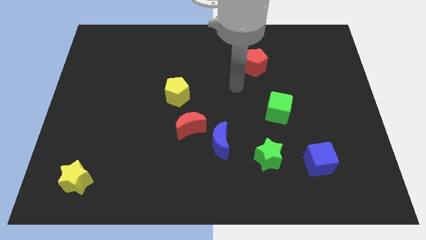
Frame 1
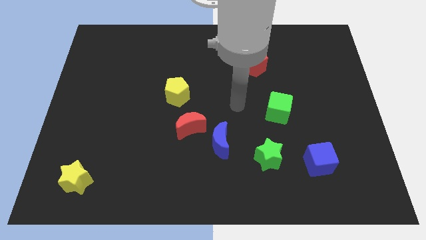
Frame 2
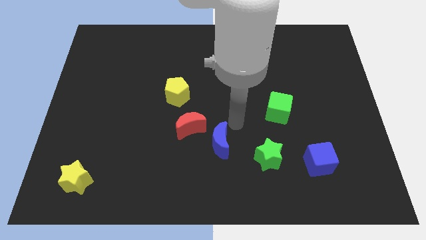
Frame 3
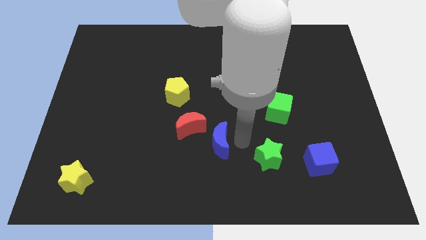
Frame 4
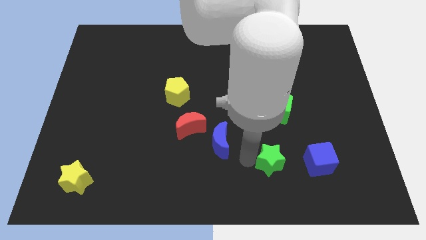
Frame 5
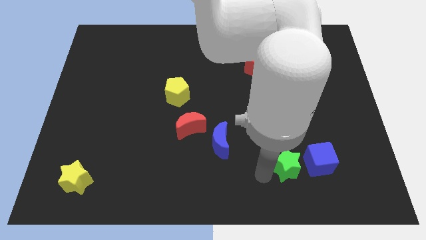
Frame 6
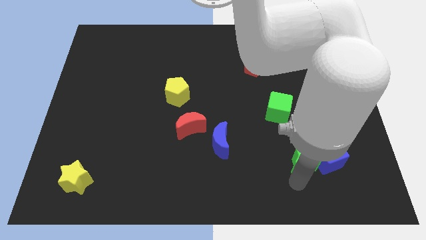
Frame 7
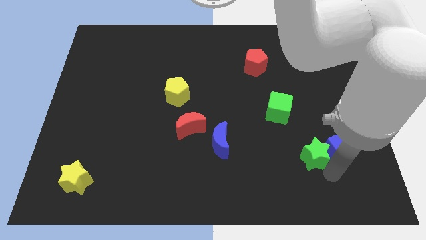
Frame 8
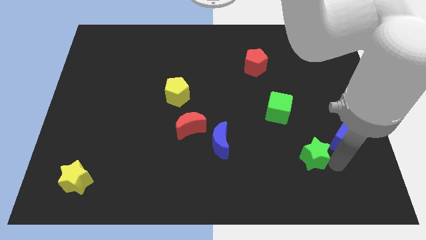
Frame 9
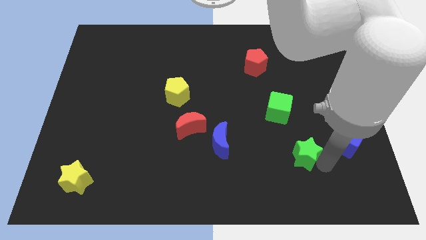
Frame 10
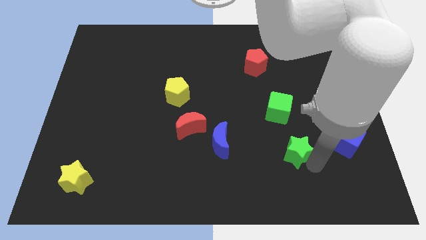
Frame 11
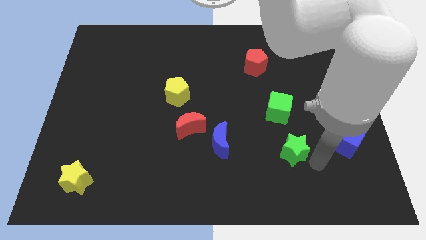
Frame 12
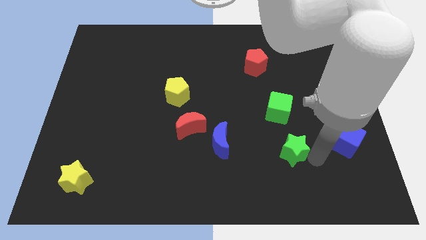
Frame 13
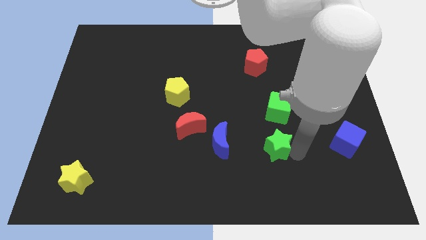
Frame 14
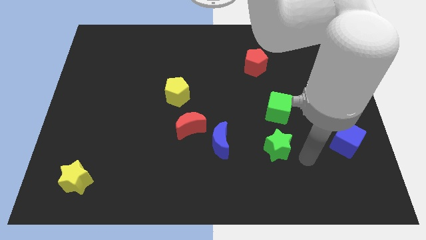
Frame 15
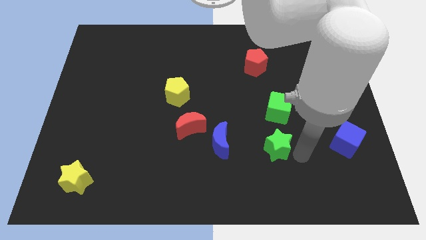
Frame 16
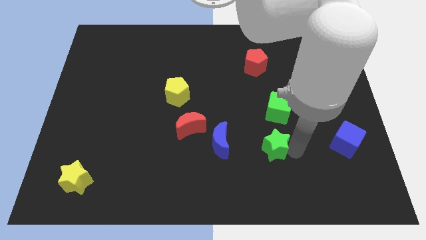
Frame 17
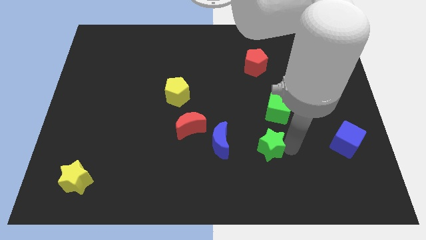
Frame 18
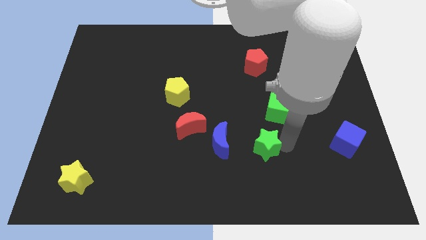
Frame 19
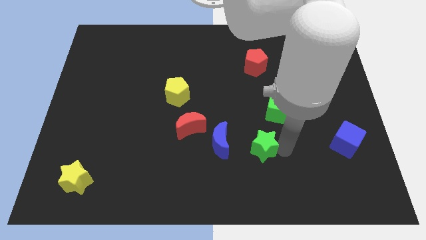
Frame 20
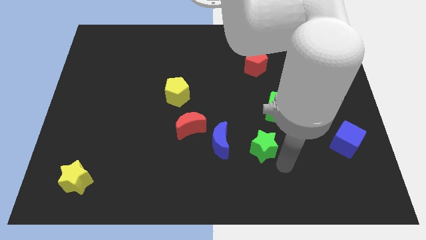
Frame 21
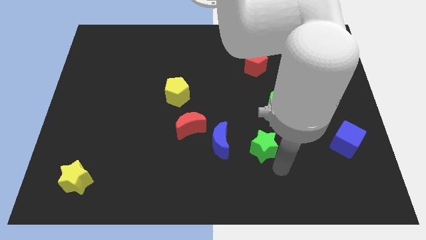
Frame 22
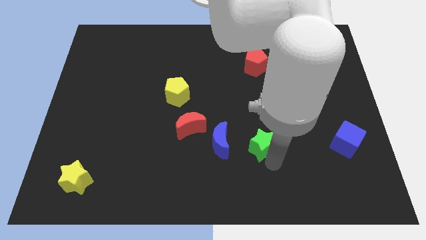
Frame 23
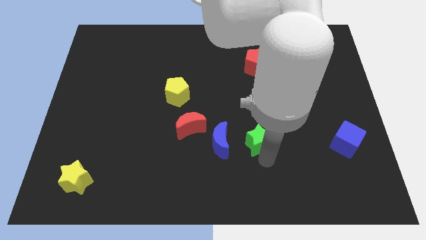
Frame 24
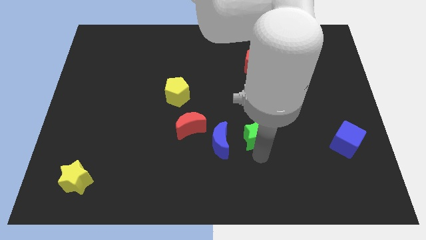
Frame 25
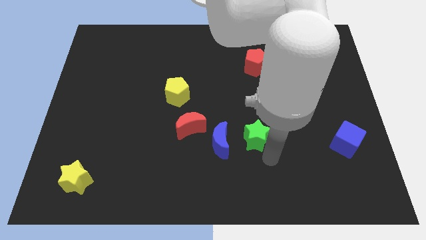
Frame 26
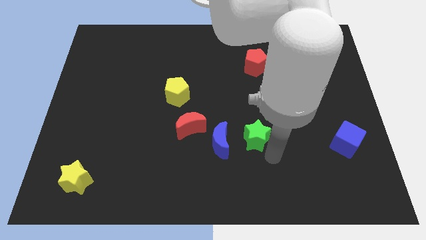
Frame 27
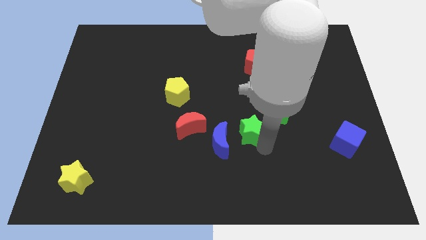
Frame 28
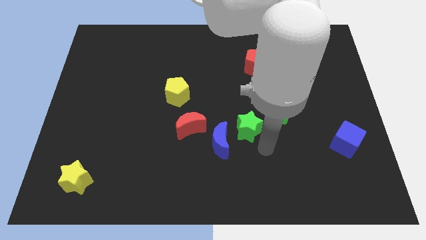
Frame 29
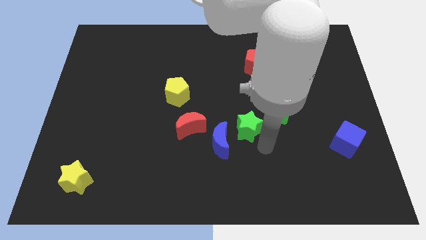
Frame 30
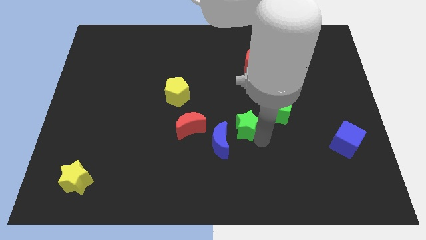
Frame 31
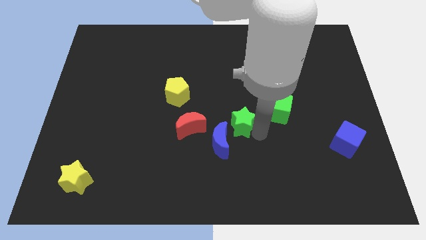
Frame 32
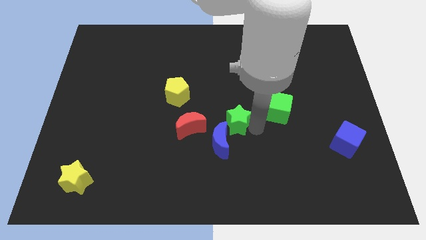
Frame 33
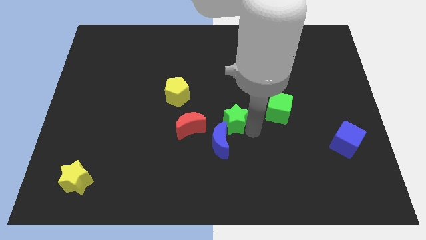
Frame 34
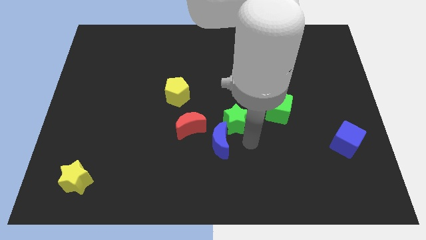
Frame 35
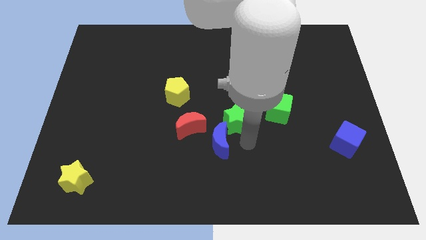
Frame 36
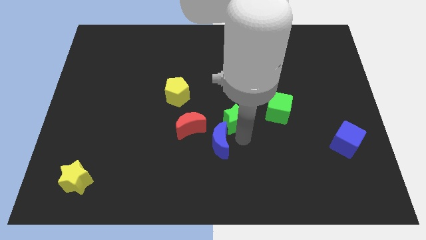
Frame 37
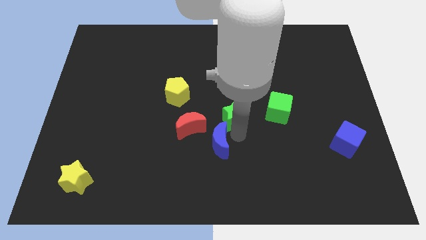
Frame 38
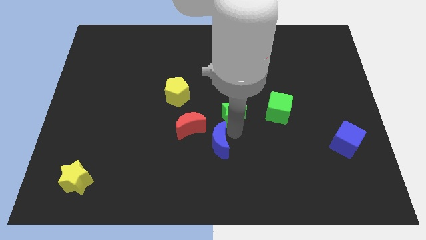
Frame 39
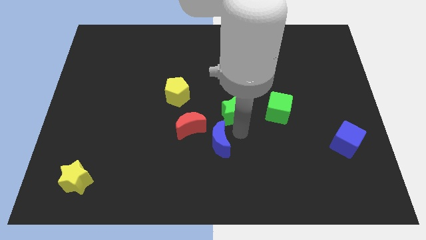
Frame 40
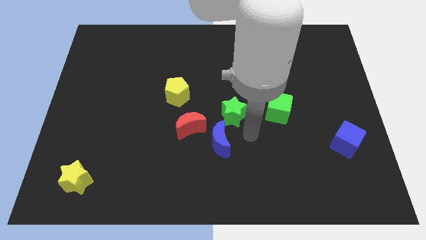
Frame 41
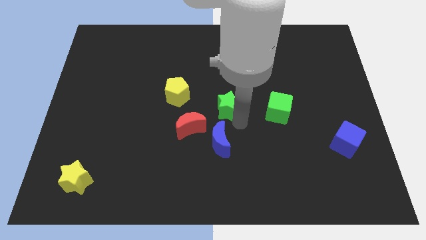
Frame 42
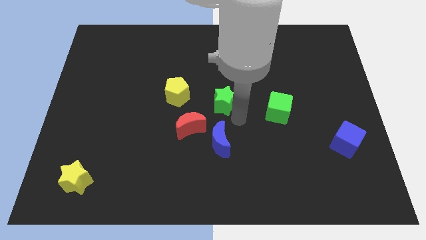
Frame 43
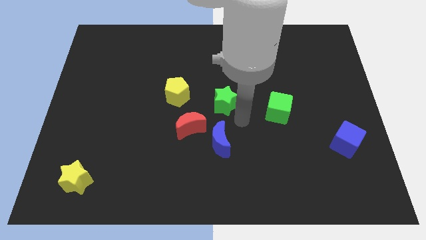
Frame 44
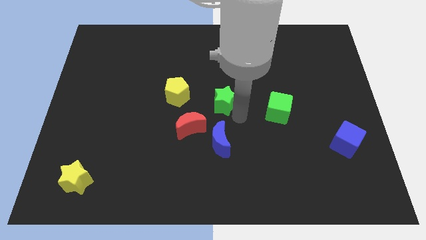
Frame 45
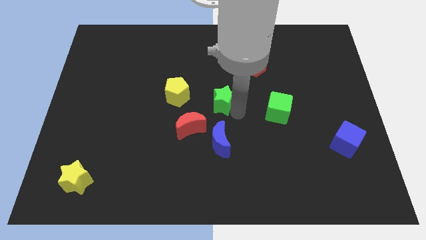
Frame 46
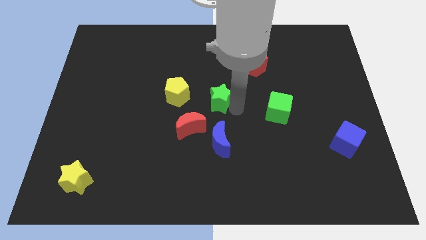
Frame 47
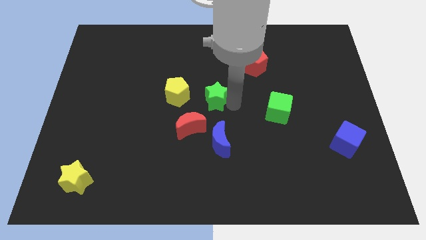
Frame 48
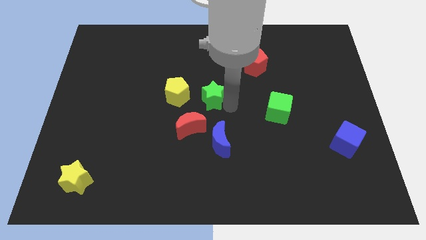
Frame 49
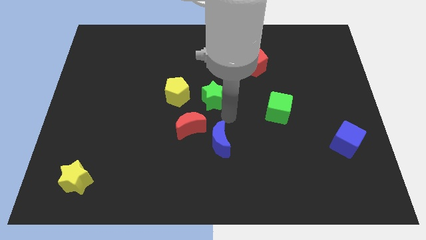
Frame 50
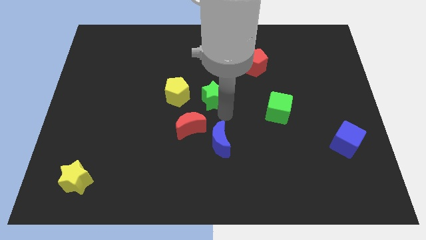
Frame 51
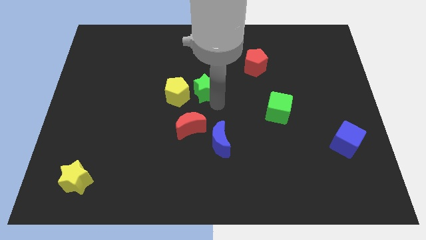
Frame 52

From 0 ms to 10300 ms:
slide the green star to the top right of the yellow pentagon

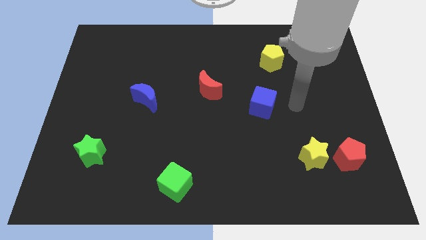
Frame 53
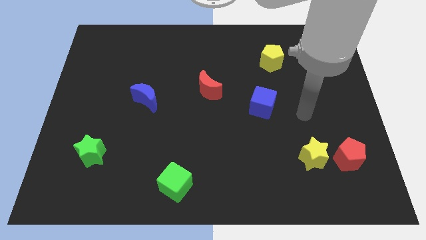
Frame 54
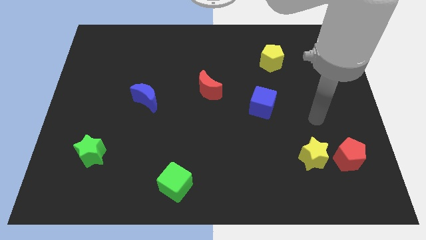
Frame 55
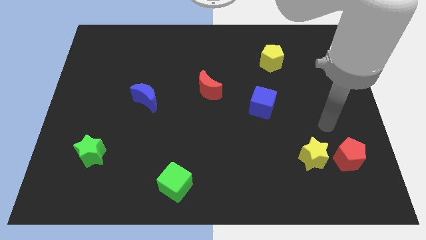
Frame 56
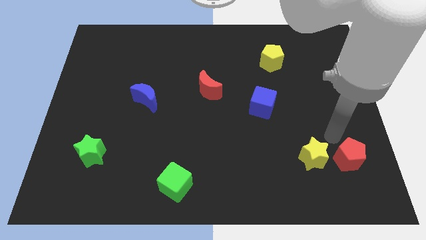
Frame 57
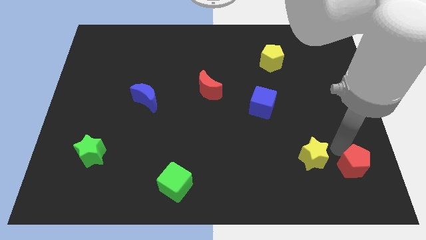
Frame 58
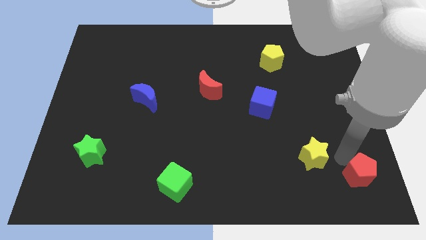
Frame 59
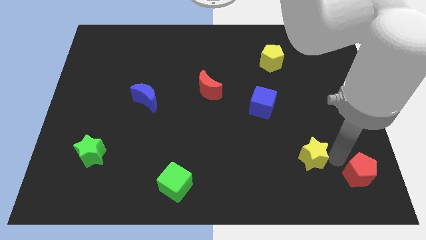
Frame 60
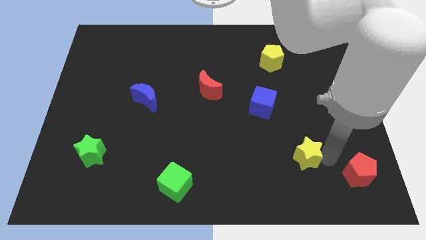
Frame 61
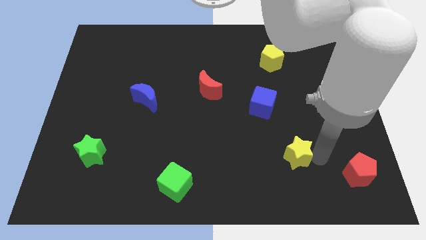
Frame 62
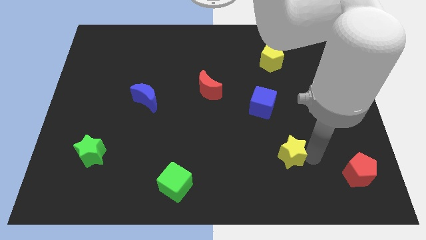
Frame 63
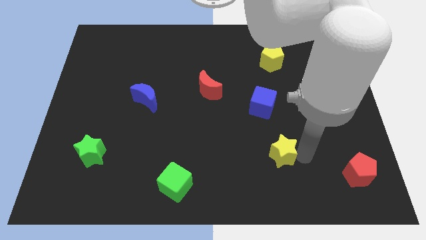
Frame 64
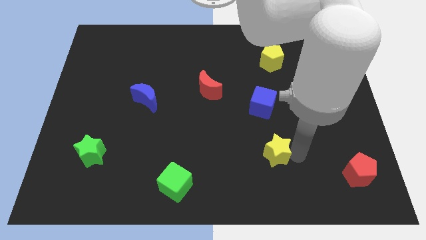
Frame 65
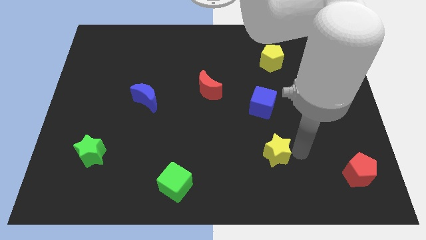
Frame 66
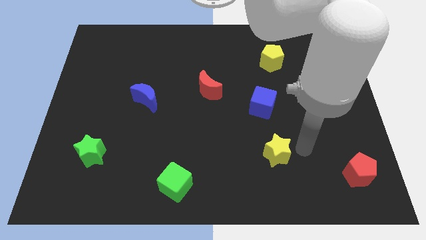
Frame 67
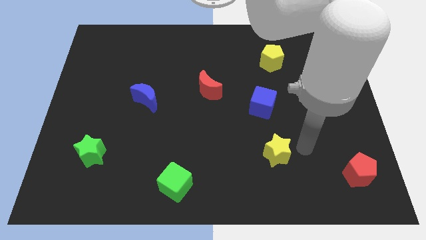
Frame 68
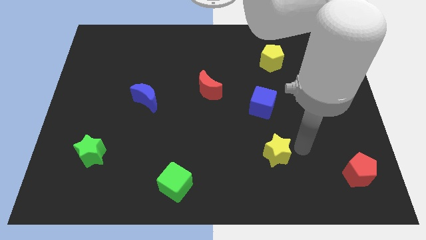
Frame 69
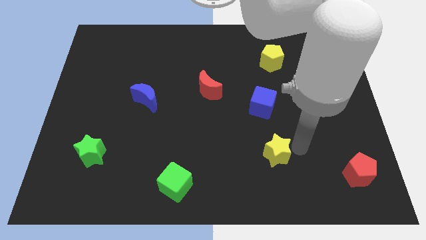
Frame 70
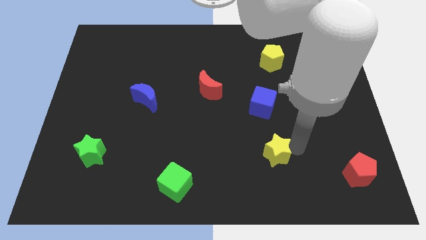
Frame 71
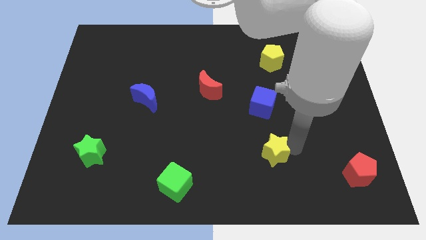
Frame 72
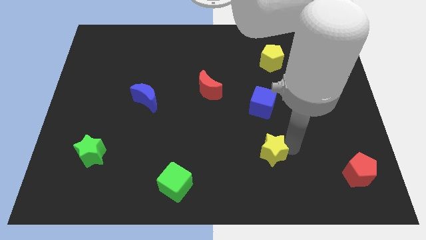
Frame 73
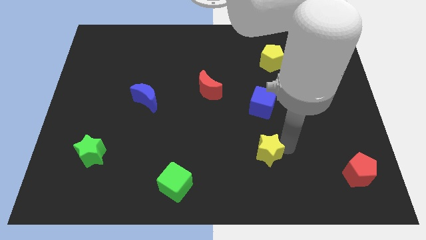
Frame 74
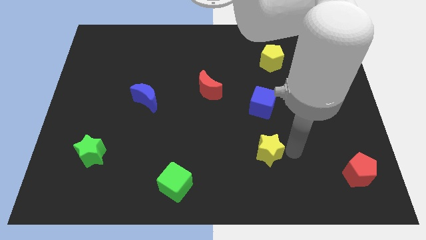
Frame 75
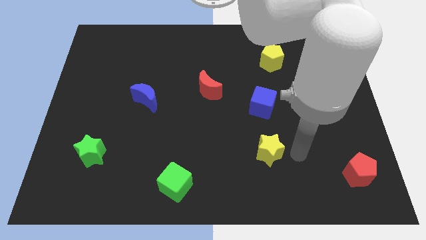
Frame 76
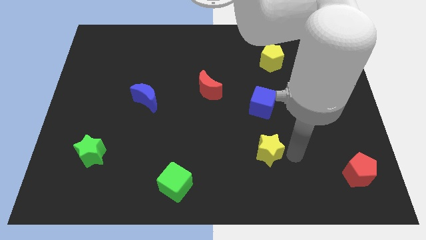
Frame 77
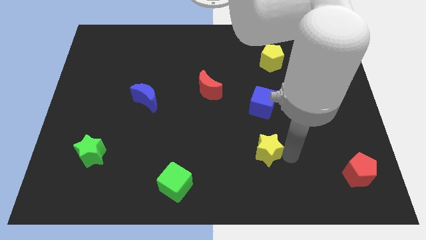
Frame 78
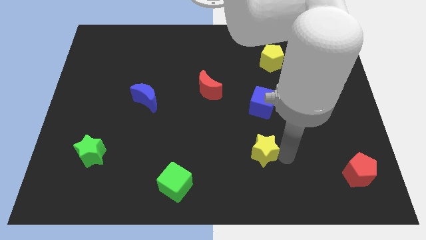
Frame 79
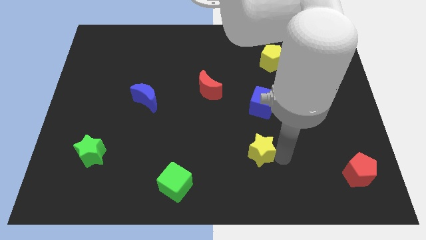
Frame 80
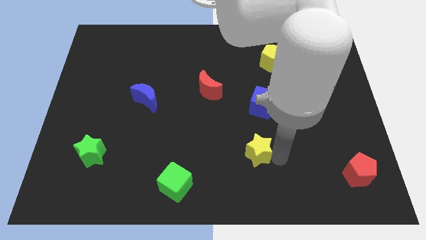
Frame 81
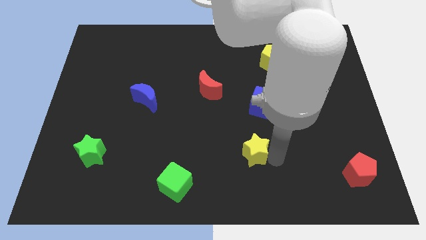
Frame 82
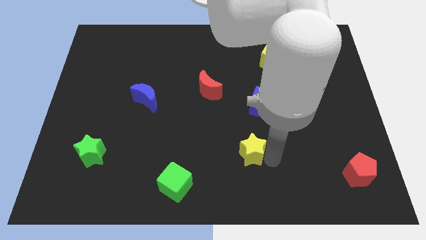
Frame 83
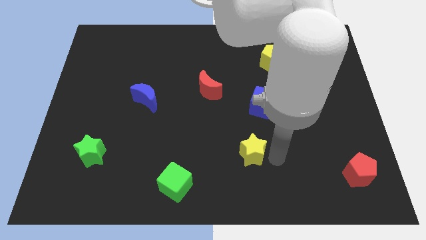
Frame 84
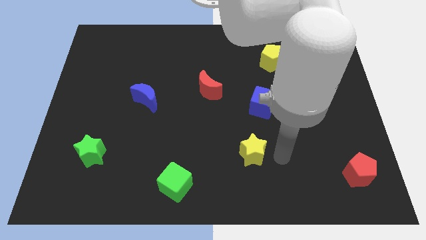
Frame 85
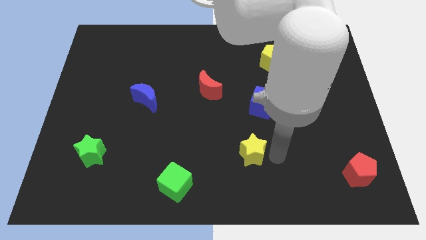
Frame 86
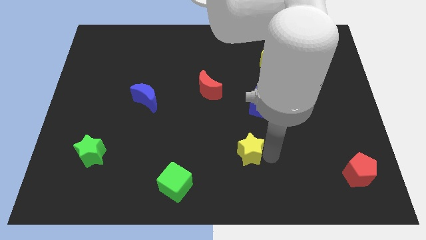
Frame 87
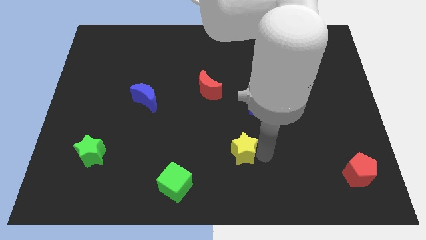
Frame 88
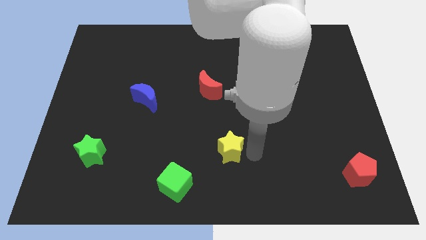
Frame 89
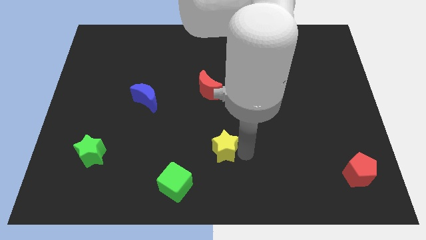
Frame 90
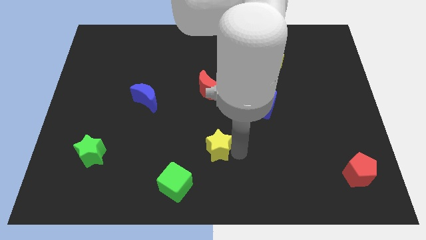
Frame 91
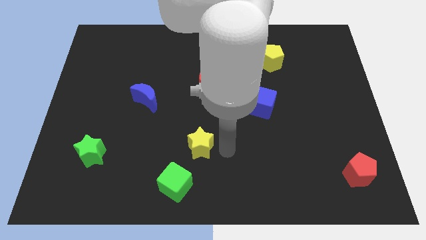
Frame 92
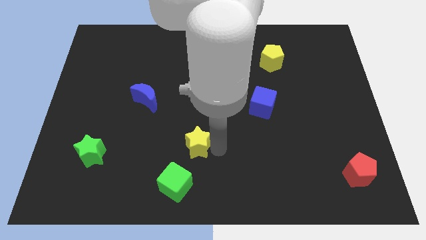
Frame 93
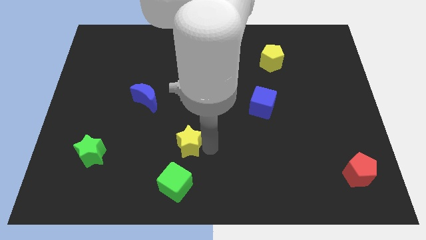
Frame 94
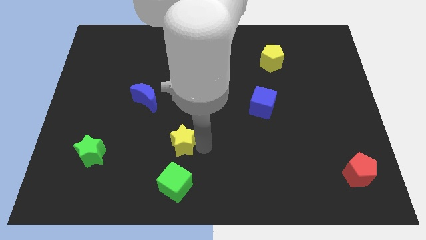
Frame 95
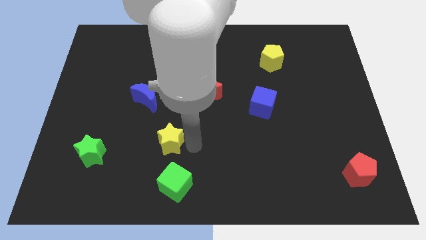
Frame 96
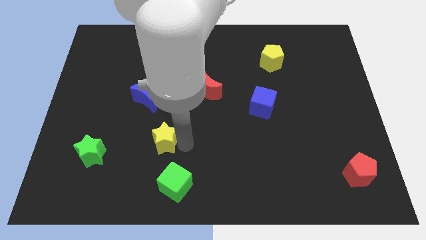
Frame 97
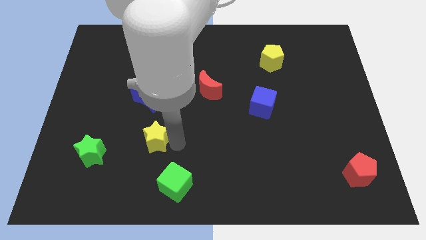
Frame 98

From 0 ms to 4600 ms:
push the yellow star to the bottom side of the blue moon
